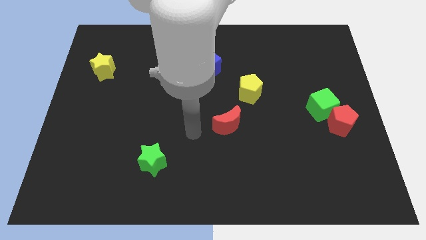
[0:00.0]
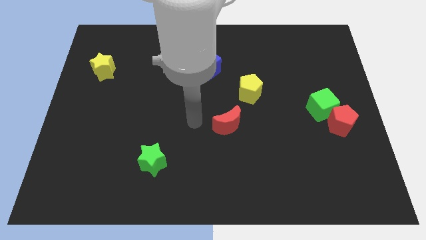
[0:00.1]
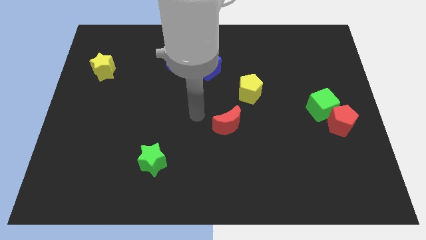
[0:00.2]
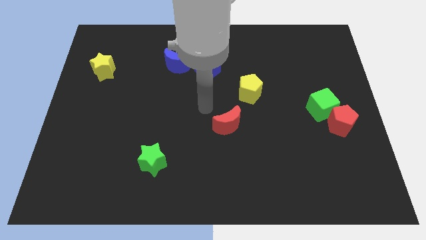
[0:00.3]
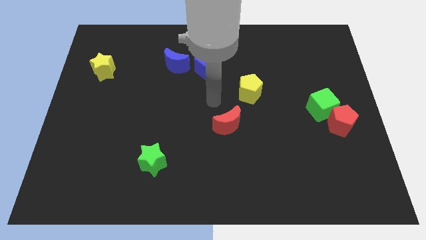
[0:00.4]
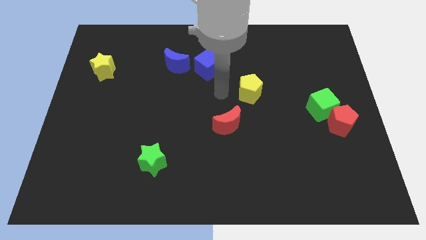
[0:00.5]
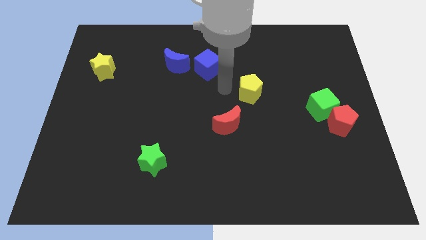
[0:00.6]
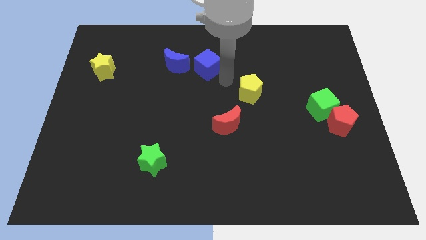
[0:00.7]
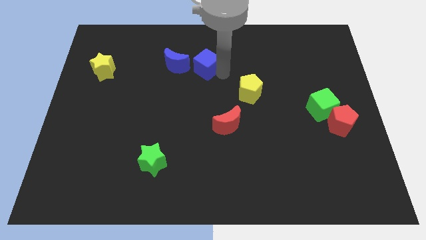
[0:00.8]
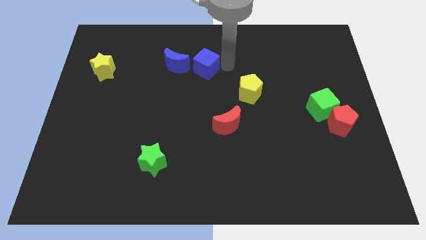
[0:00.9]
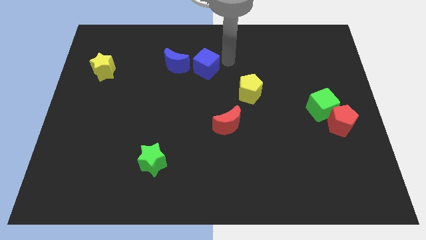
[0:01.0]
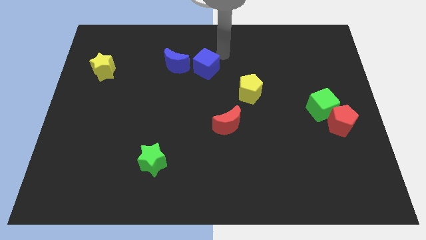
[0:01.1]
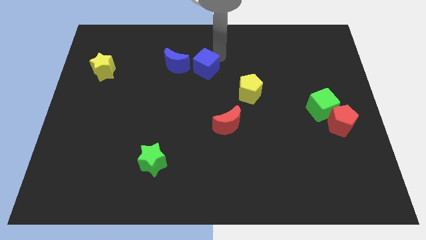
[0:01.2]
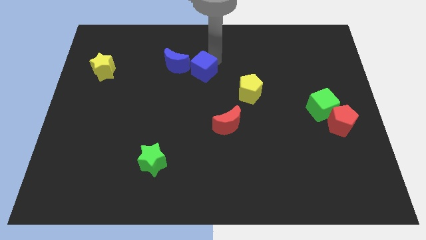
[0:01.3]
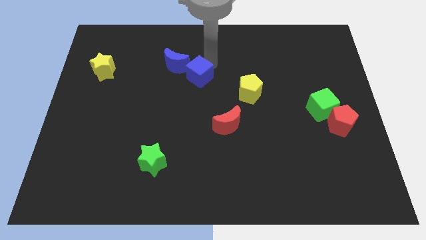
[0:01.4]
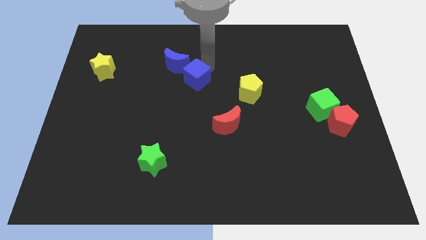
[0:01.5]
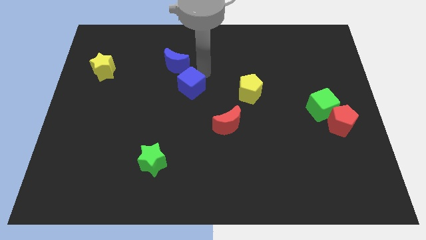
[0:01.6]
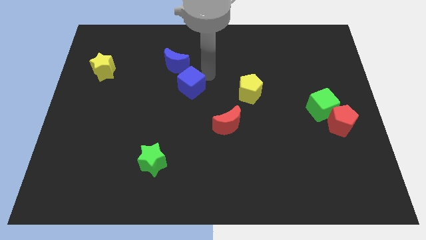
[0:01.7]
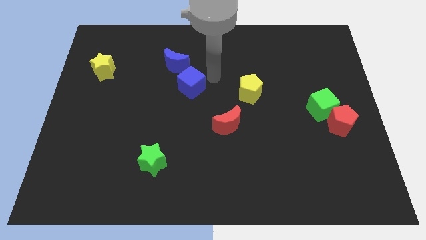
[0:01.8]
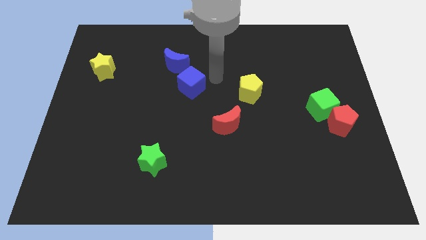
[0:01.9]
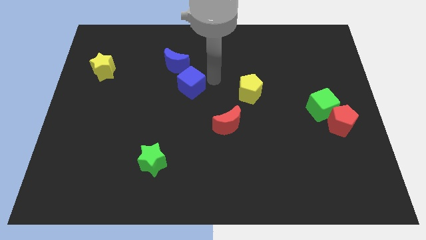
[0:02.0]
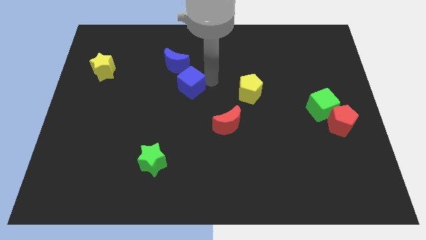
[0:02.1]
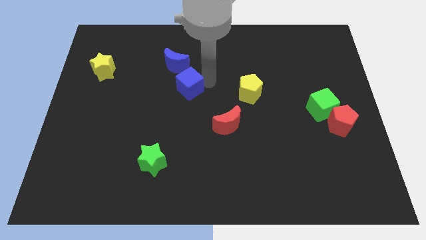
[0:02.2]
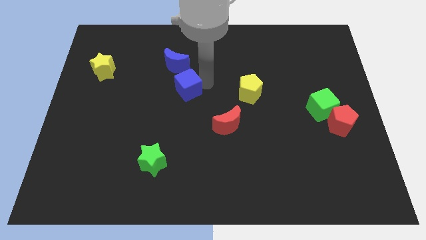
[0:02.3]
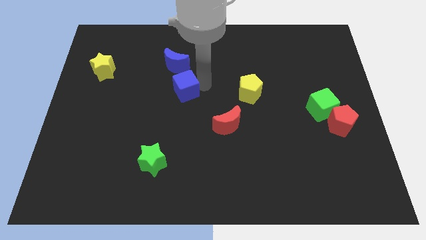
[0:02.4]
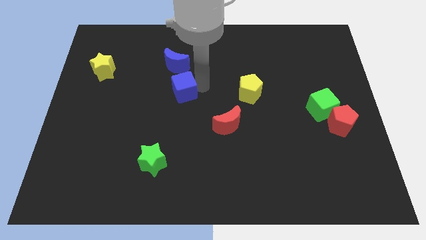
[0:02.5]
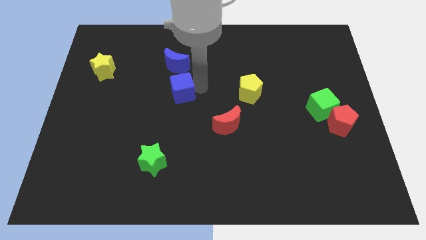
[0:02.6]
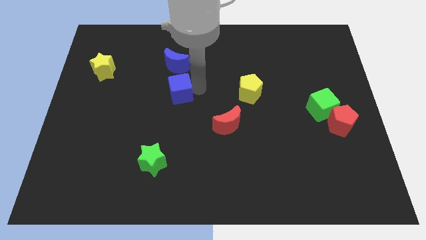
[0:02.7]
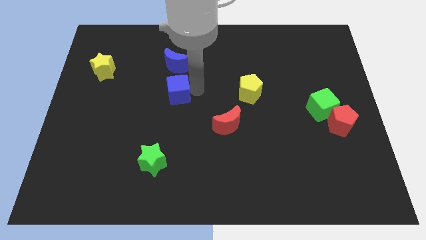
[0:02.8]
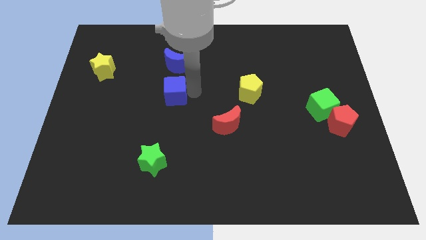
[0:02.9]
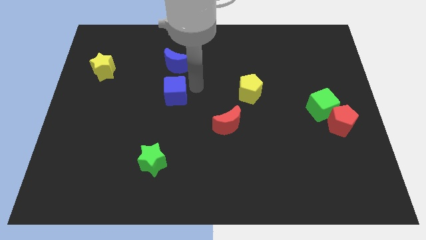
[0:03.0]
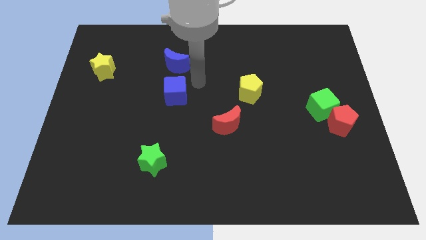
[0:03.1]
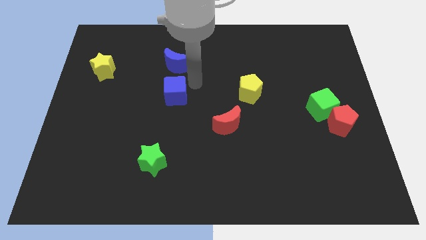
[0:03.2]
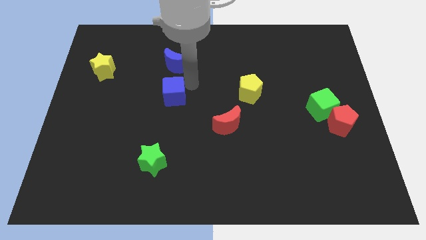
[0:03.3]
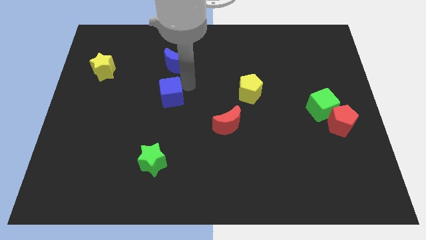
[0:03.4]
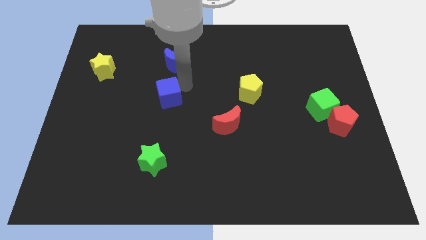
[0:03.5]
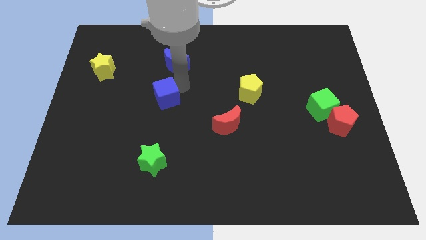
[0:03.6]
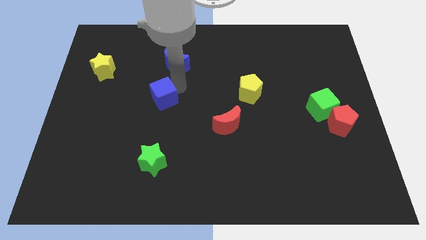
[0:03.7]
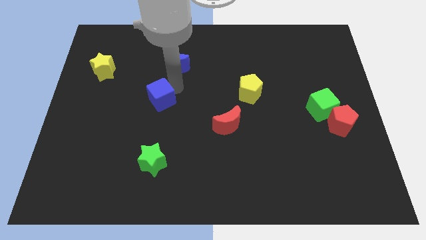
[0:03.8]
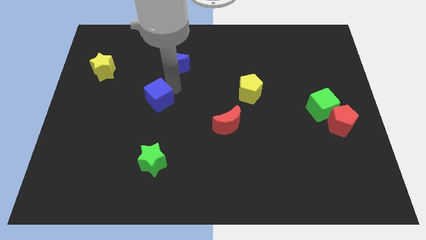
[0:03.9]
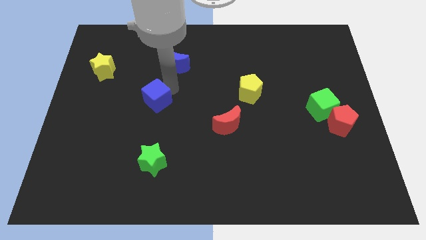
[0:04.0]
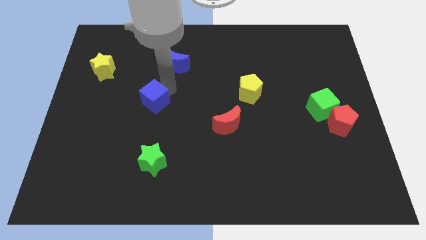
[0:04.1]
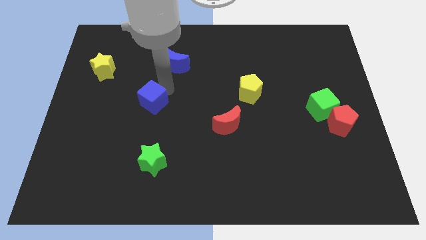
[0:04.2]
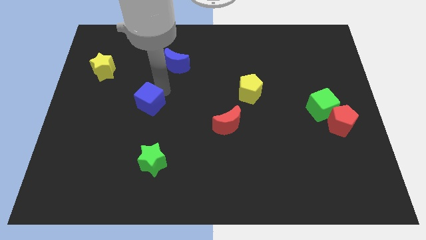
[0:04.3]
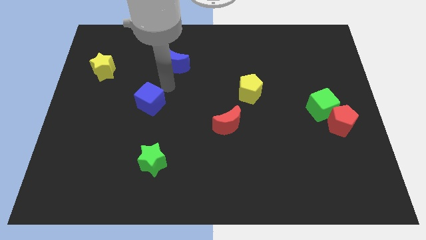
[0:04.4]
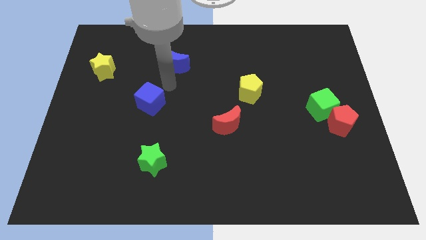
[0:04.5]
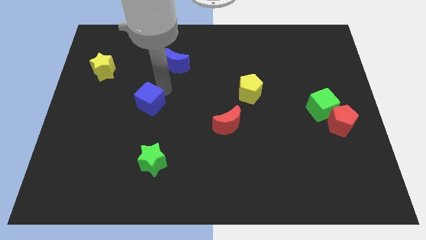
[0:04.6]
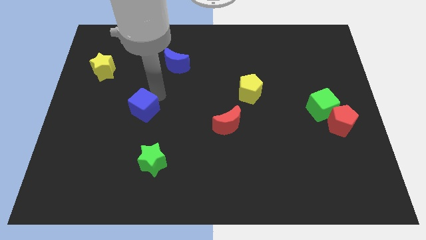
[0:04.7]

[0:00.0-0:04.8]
slide the blue cube downwards and left diagonally

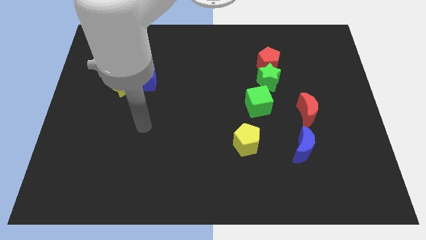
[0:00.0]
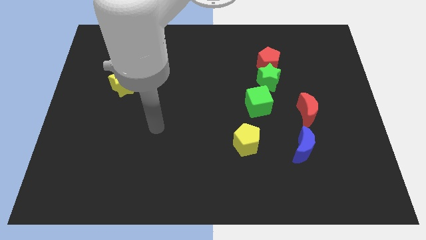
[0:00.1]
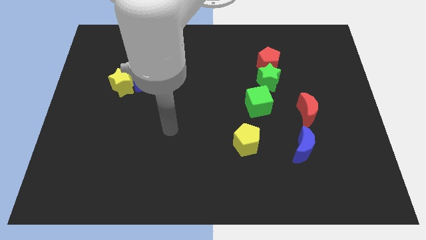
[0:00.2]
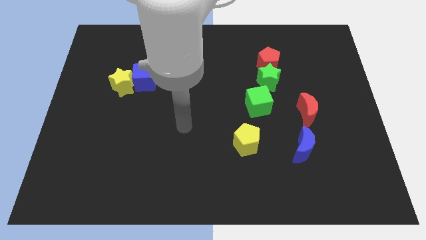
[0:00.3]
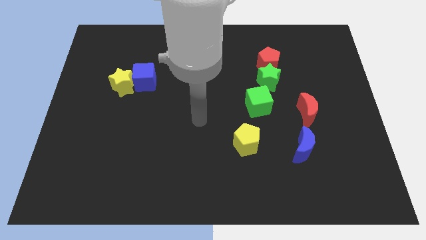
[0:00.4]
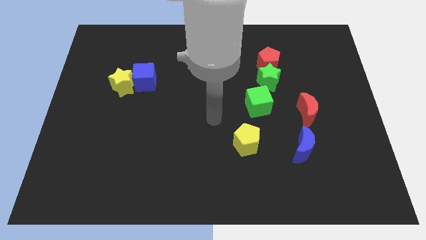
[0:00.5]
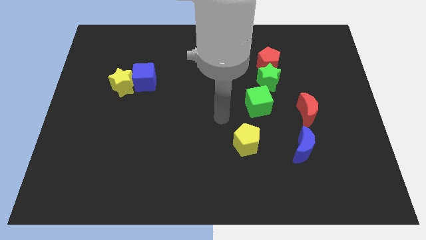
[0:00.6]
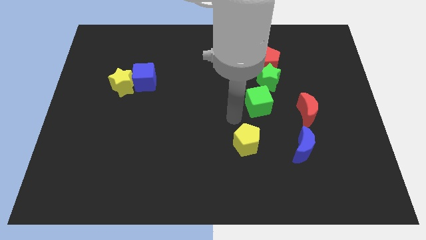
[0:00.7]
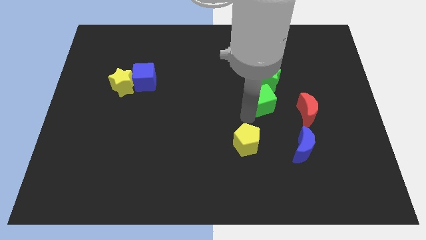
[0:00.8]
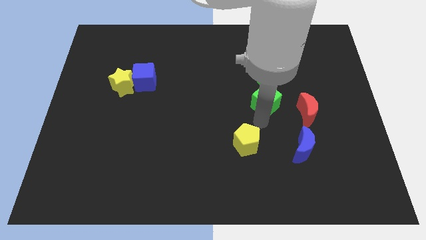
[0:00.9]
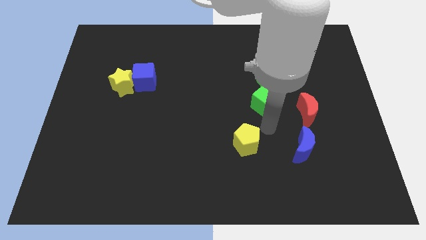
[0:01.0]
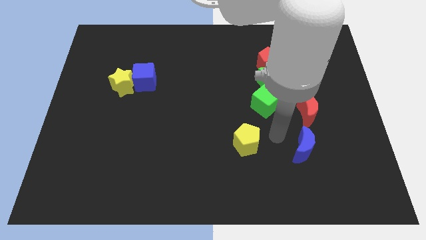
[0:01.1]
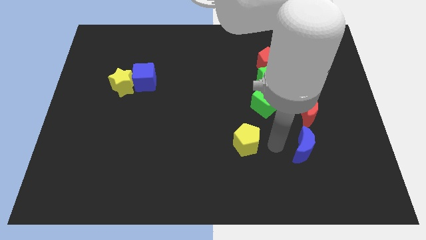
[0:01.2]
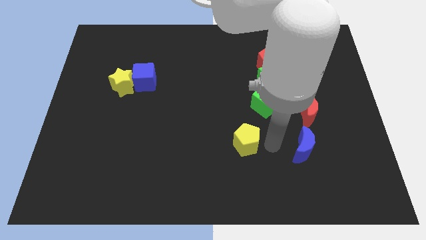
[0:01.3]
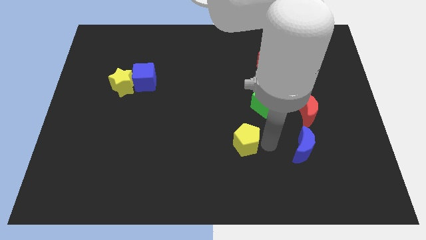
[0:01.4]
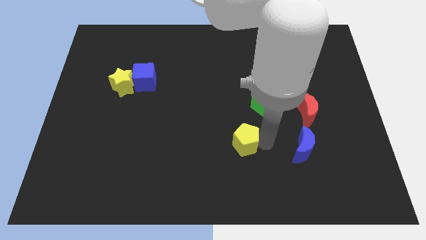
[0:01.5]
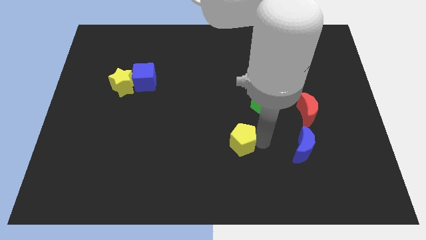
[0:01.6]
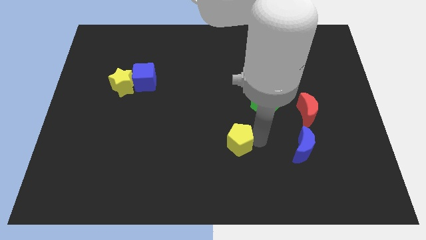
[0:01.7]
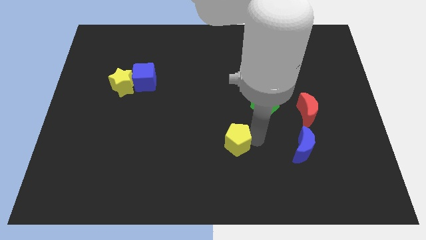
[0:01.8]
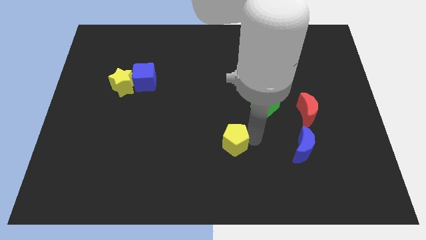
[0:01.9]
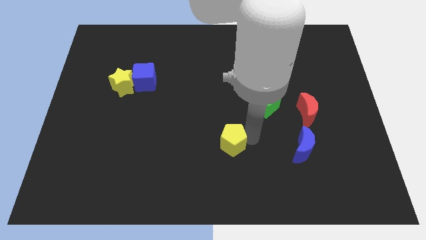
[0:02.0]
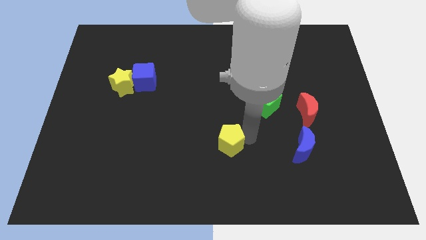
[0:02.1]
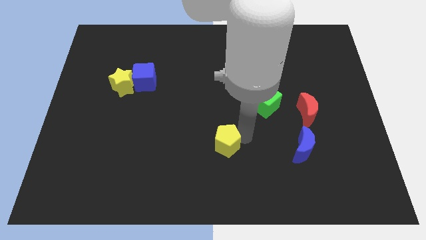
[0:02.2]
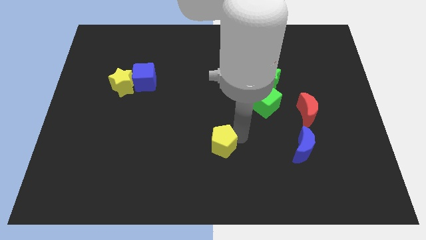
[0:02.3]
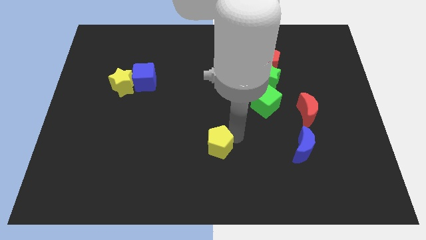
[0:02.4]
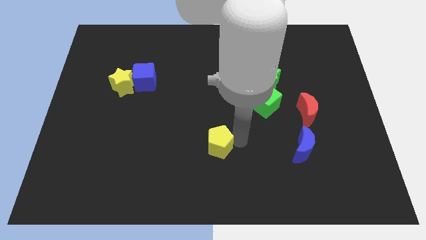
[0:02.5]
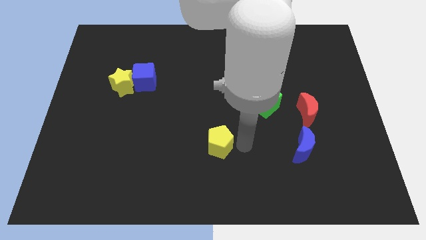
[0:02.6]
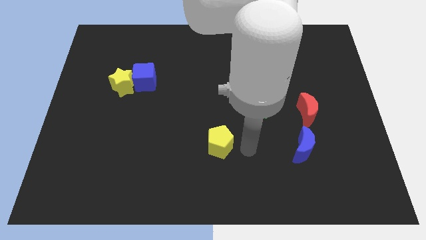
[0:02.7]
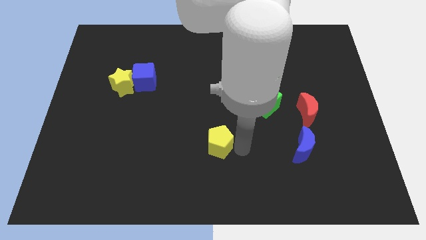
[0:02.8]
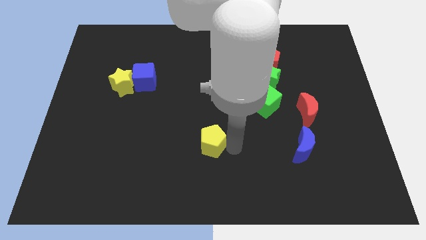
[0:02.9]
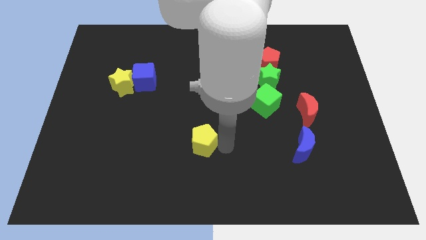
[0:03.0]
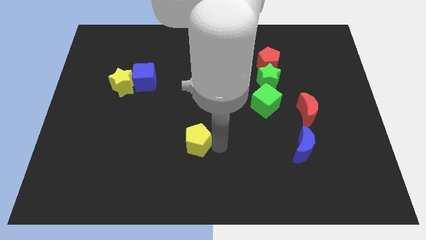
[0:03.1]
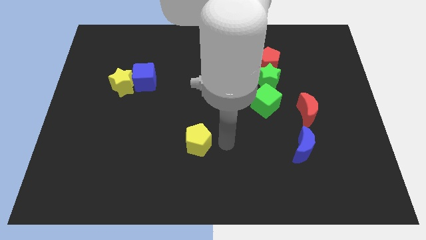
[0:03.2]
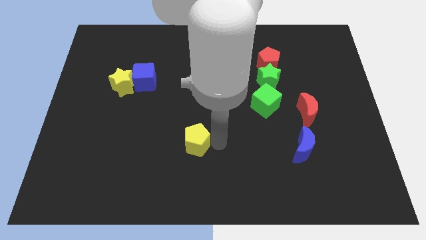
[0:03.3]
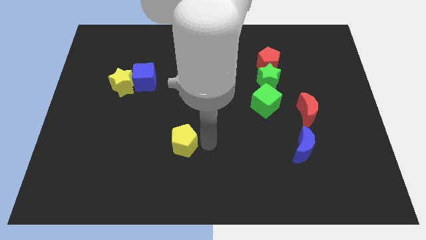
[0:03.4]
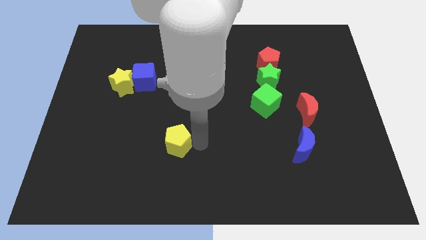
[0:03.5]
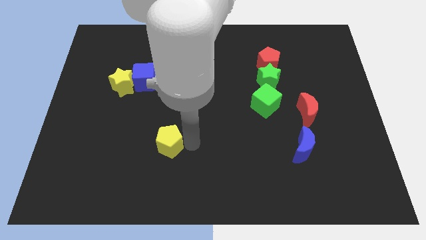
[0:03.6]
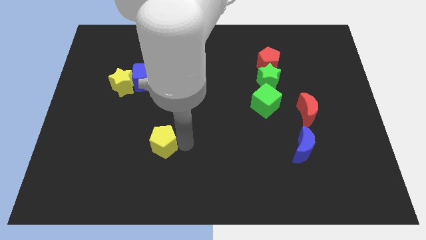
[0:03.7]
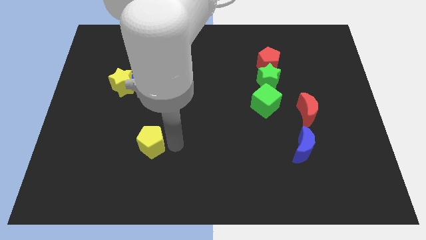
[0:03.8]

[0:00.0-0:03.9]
slide the yellow pentagon left
